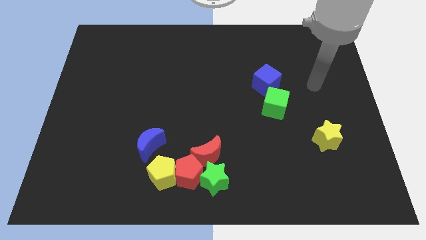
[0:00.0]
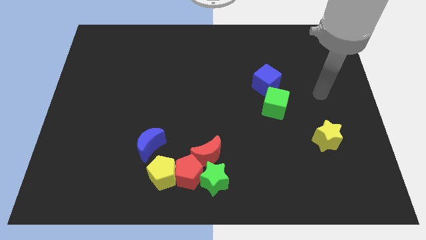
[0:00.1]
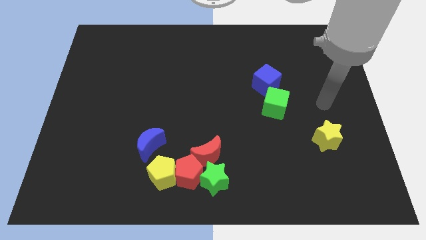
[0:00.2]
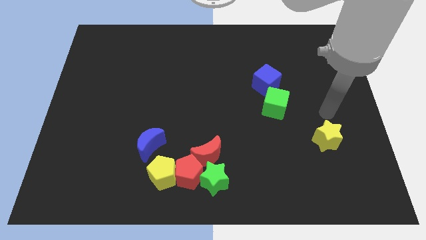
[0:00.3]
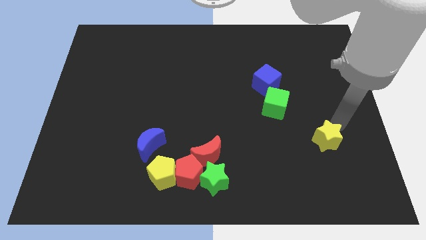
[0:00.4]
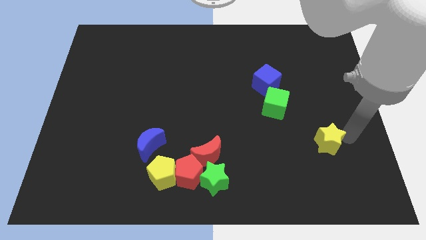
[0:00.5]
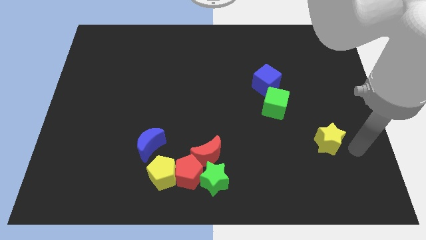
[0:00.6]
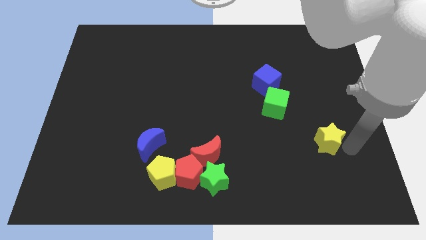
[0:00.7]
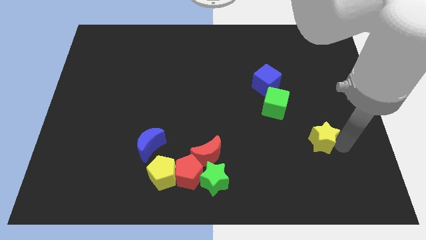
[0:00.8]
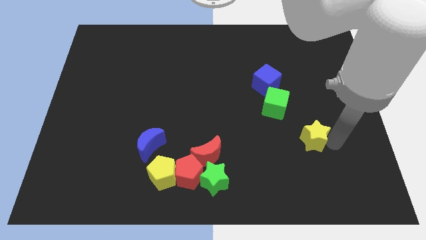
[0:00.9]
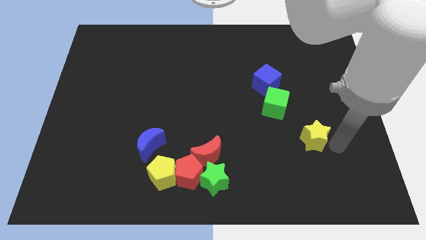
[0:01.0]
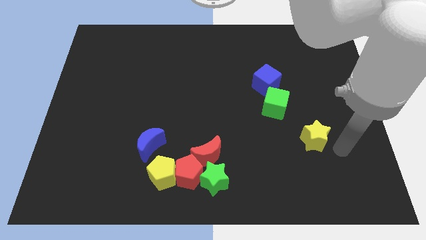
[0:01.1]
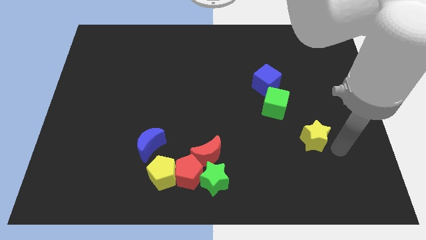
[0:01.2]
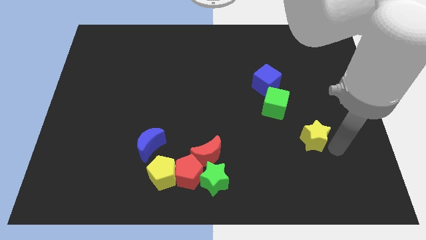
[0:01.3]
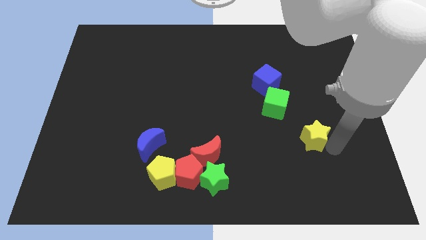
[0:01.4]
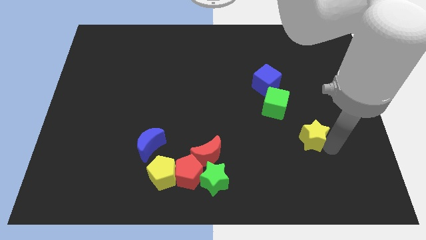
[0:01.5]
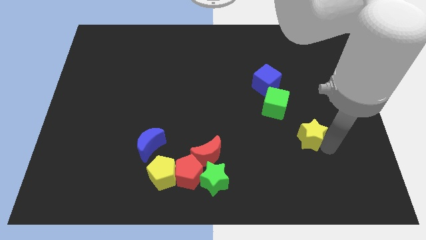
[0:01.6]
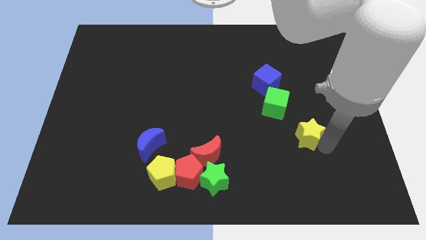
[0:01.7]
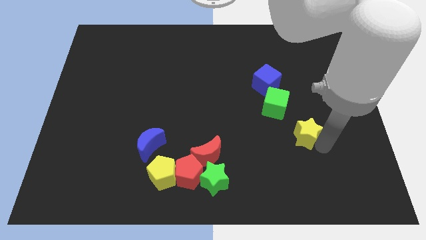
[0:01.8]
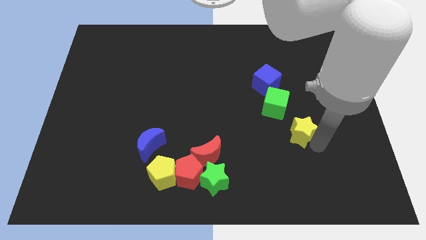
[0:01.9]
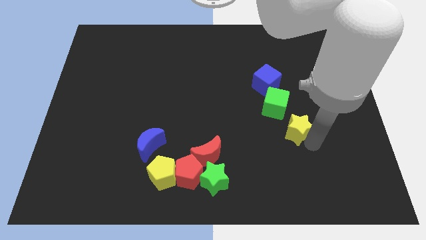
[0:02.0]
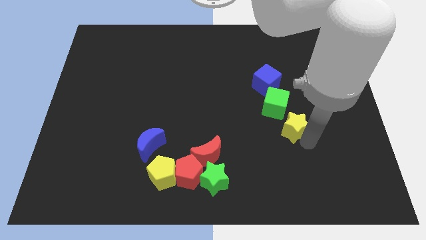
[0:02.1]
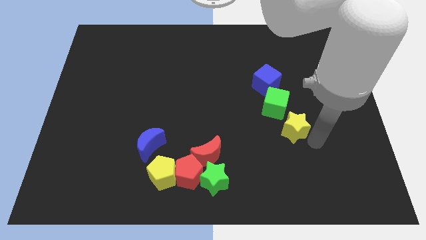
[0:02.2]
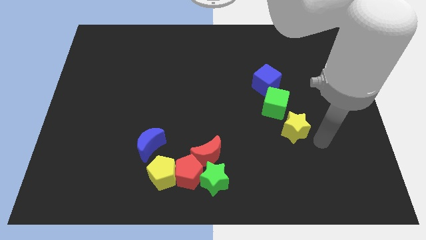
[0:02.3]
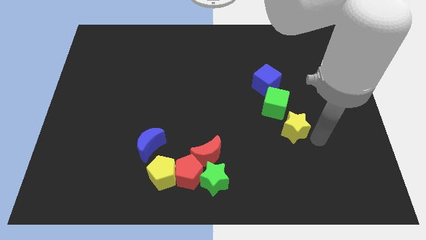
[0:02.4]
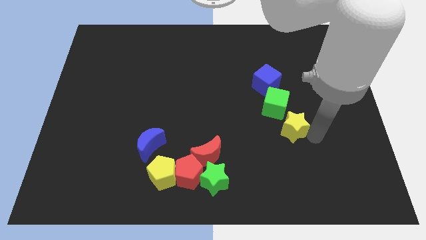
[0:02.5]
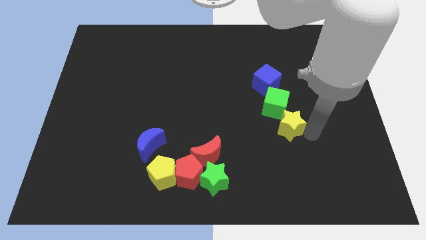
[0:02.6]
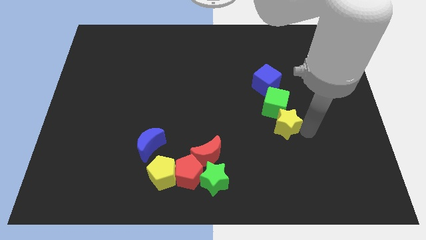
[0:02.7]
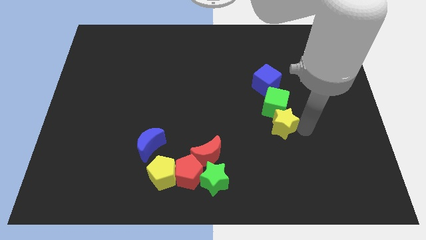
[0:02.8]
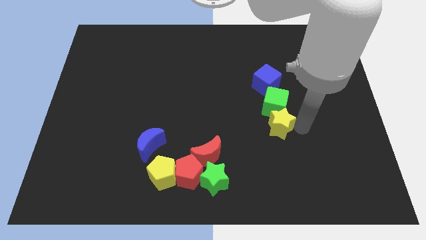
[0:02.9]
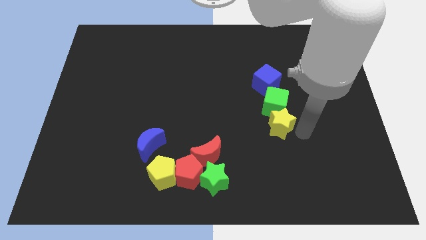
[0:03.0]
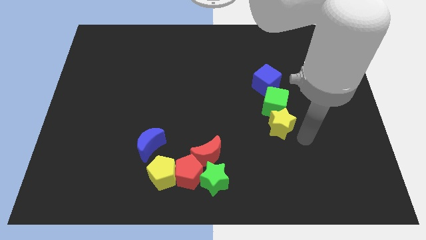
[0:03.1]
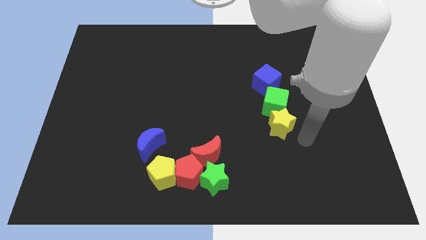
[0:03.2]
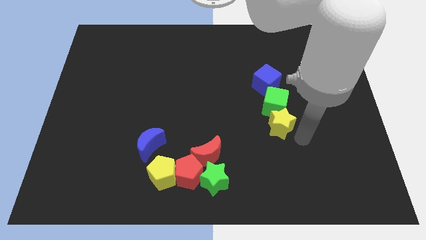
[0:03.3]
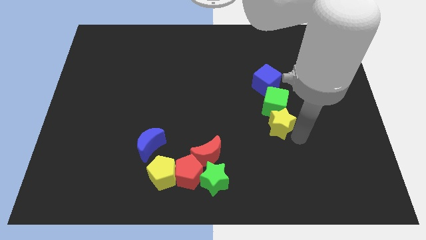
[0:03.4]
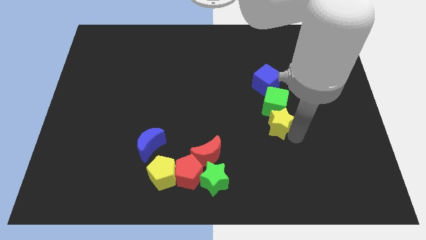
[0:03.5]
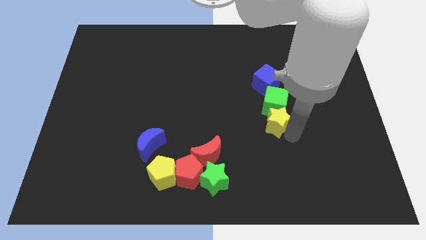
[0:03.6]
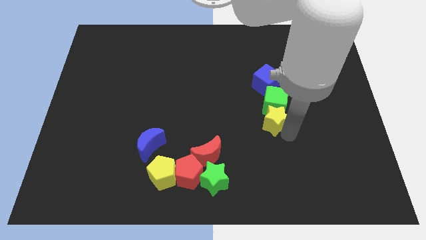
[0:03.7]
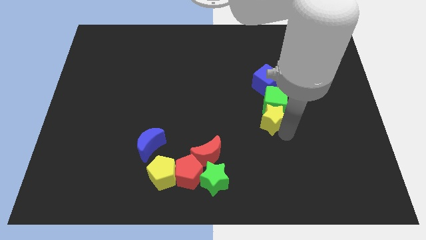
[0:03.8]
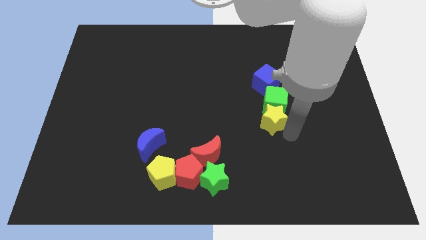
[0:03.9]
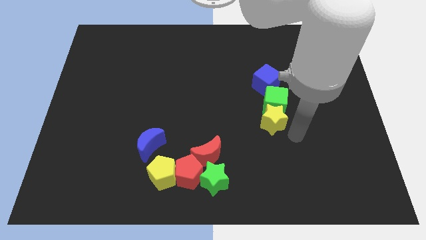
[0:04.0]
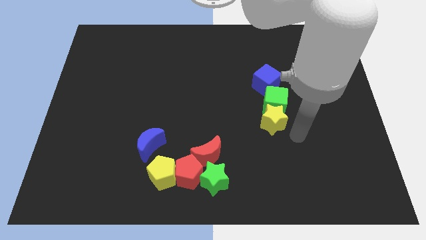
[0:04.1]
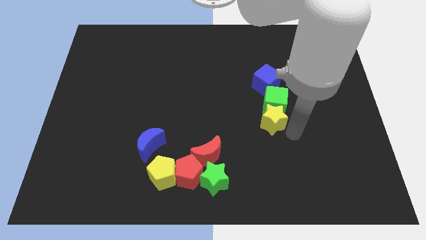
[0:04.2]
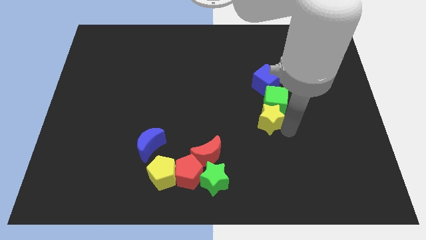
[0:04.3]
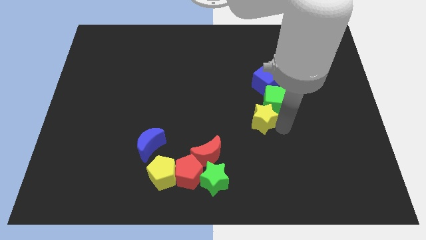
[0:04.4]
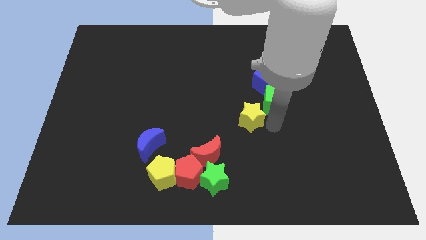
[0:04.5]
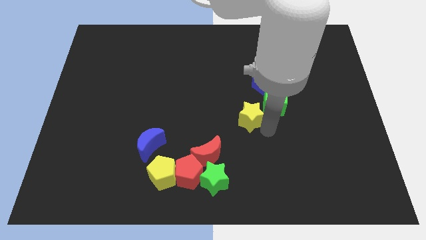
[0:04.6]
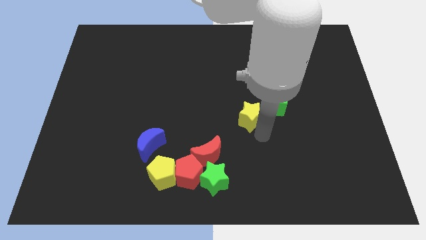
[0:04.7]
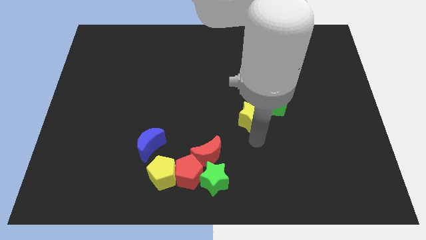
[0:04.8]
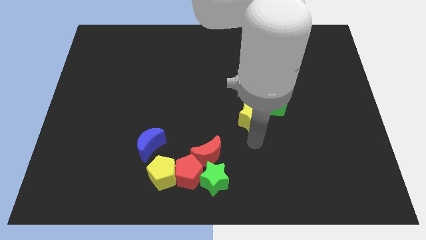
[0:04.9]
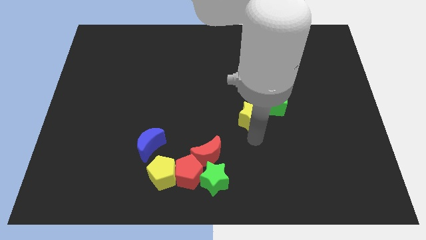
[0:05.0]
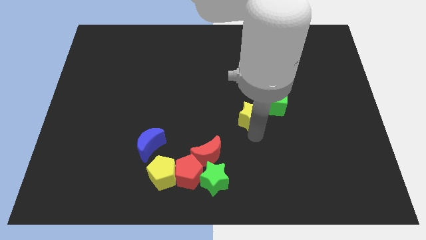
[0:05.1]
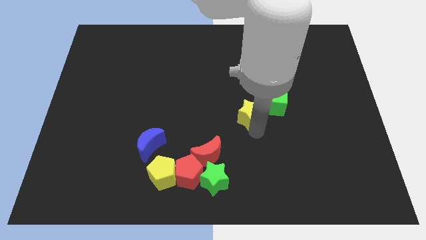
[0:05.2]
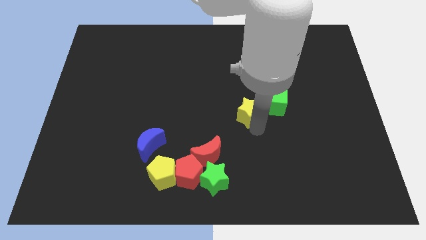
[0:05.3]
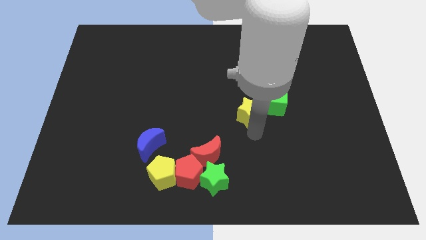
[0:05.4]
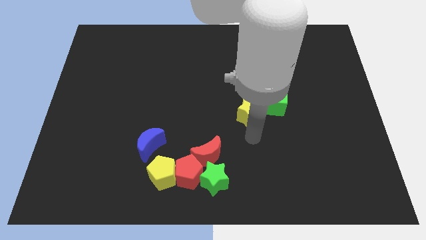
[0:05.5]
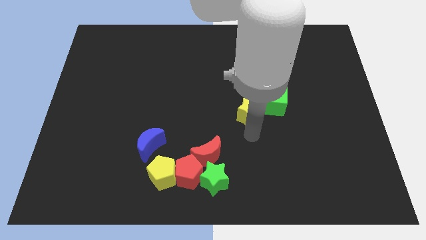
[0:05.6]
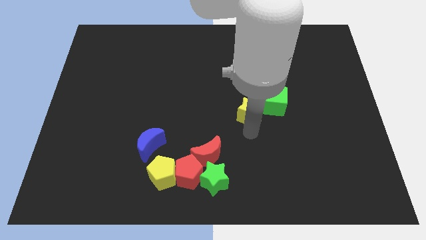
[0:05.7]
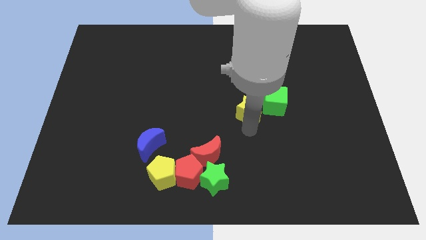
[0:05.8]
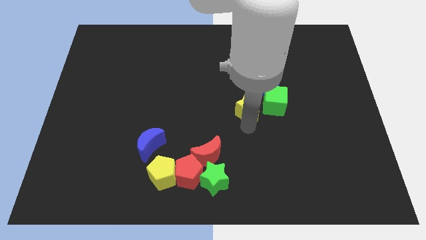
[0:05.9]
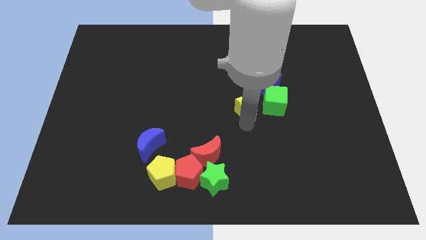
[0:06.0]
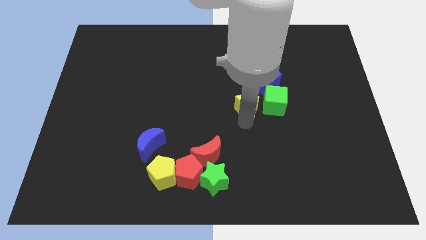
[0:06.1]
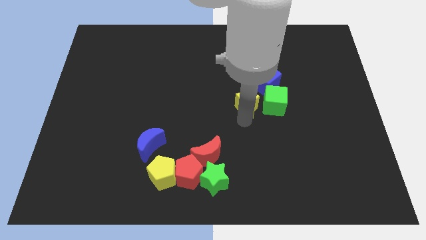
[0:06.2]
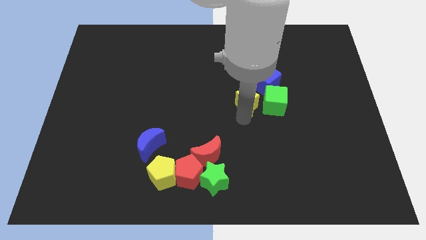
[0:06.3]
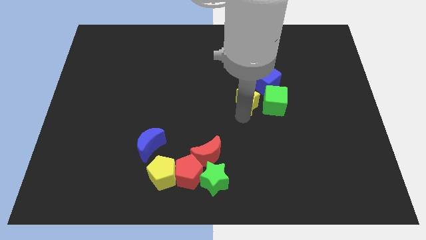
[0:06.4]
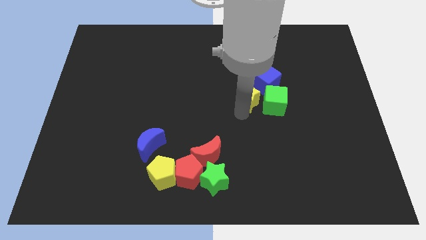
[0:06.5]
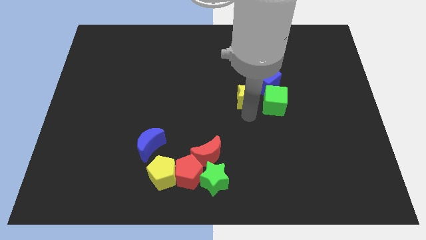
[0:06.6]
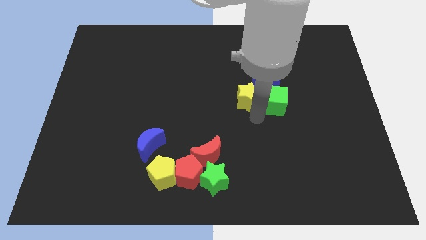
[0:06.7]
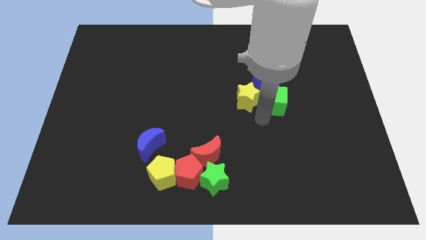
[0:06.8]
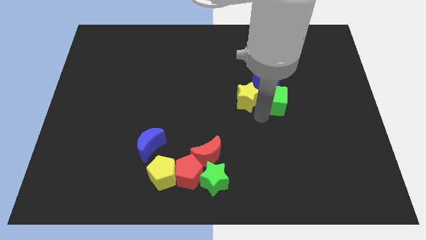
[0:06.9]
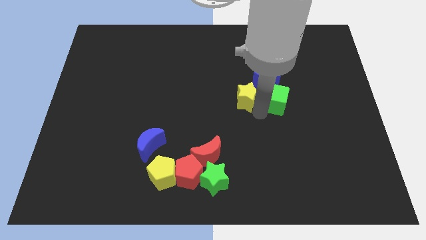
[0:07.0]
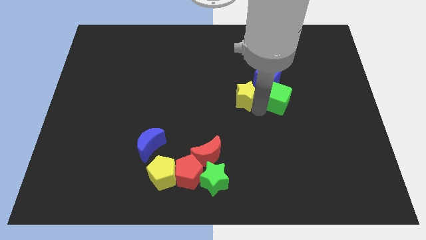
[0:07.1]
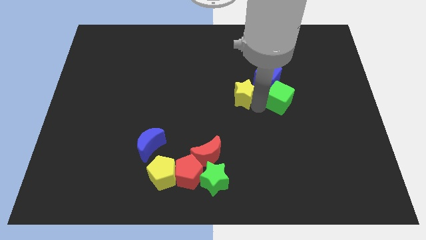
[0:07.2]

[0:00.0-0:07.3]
move the yellow star up and to the left

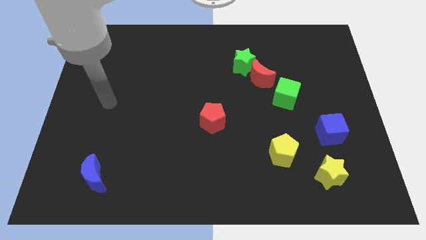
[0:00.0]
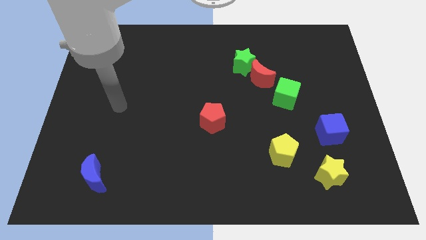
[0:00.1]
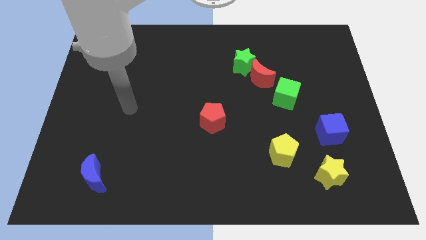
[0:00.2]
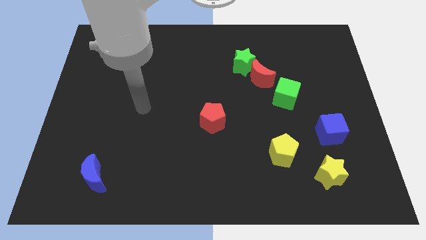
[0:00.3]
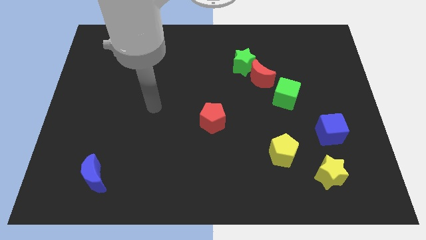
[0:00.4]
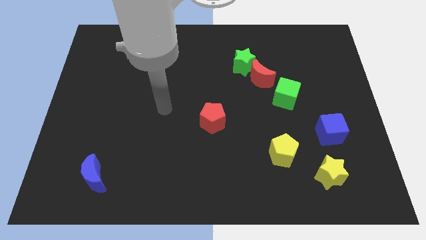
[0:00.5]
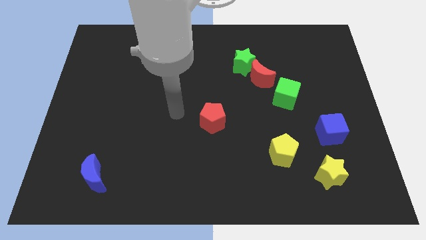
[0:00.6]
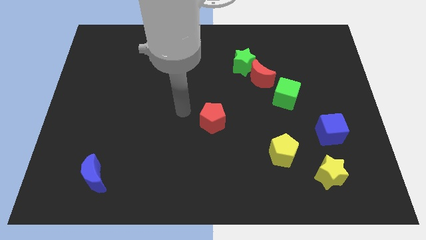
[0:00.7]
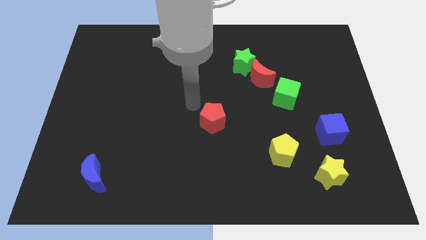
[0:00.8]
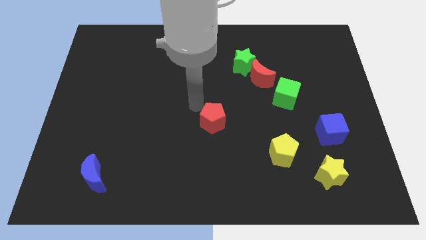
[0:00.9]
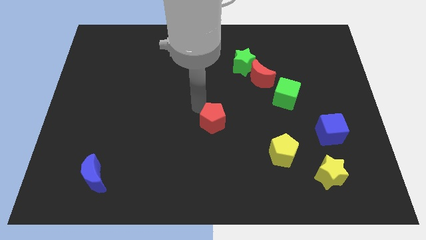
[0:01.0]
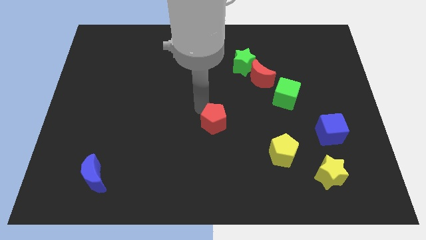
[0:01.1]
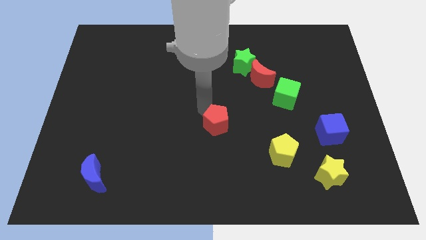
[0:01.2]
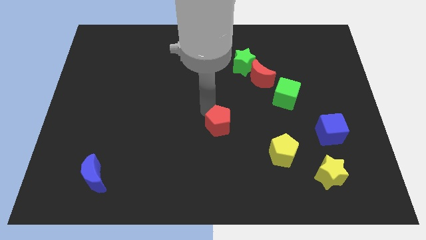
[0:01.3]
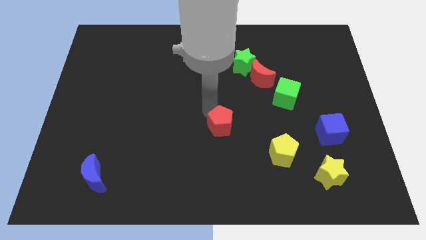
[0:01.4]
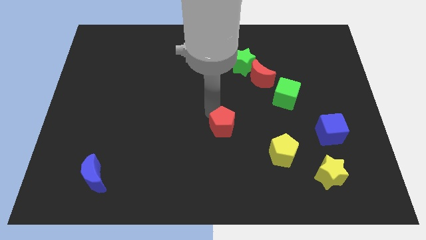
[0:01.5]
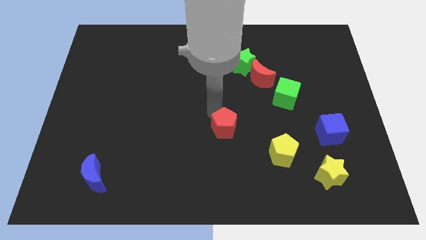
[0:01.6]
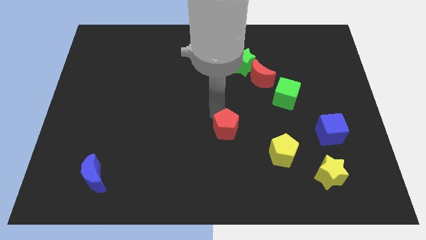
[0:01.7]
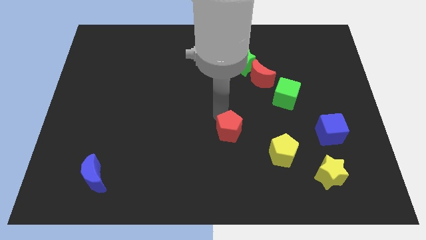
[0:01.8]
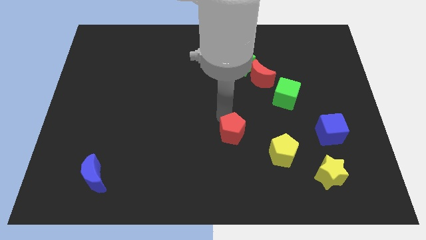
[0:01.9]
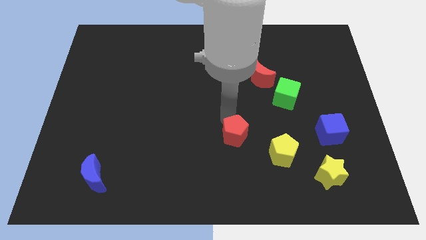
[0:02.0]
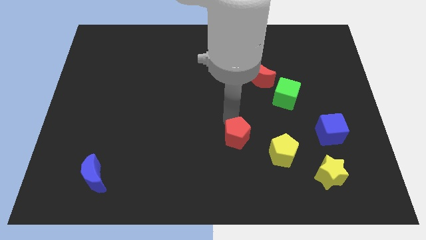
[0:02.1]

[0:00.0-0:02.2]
push the red pentagon downwards and right diagonally a little bit
